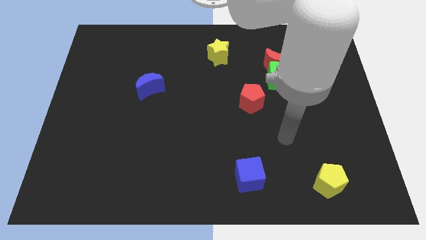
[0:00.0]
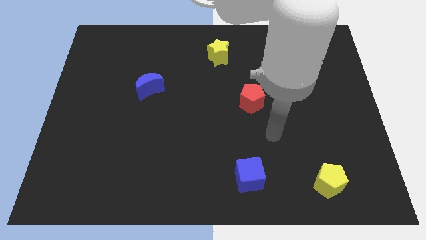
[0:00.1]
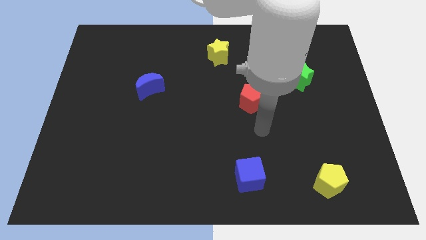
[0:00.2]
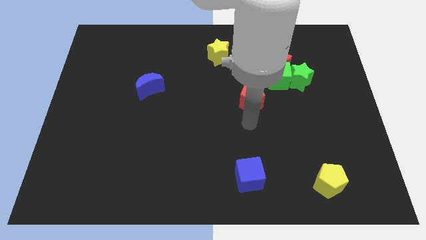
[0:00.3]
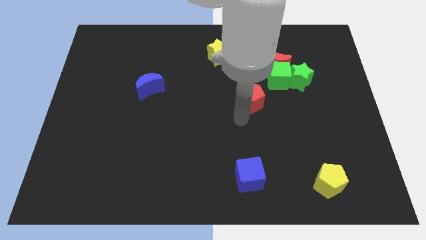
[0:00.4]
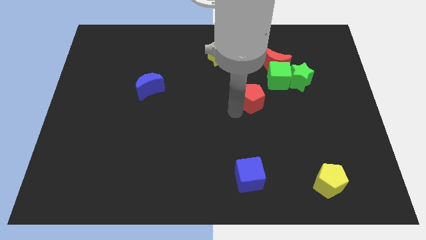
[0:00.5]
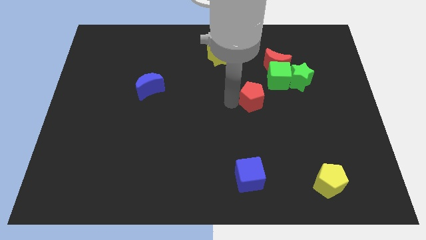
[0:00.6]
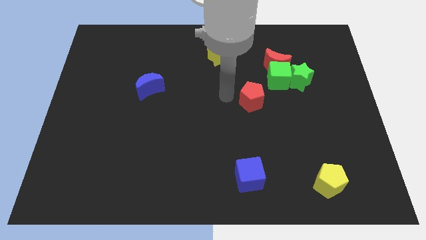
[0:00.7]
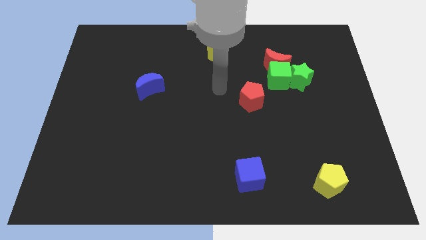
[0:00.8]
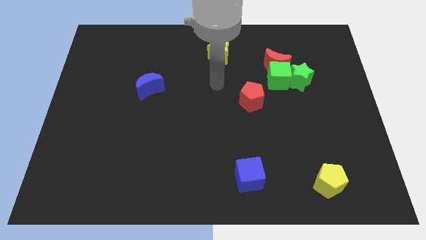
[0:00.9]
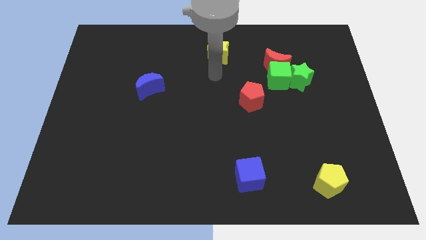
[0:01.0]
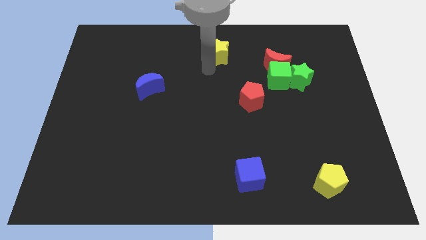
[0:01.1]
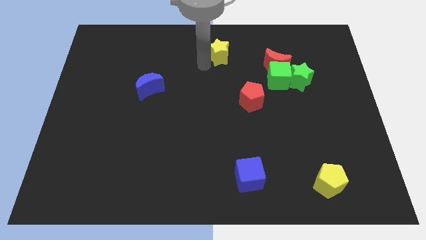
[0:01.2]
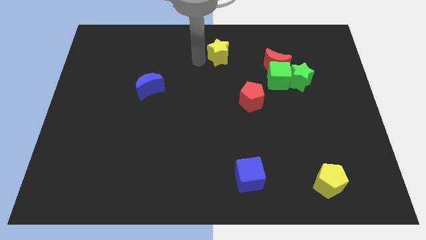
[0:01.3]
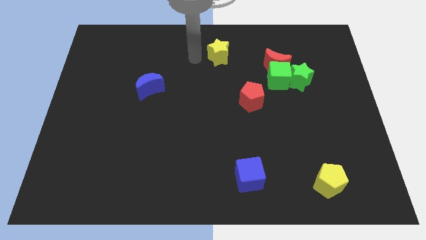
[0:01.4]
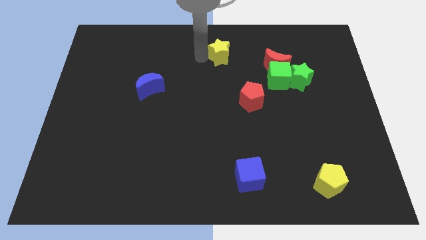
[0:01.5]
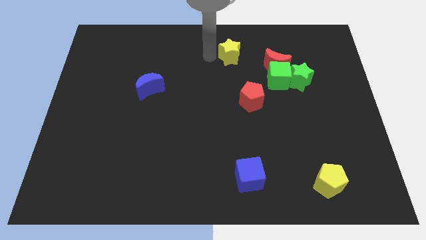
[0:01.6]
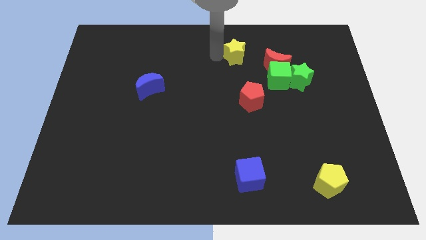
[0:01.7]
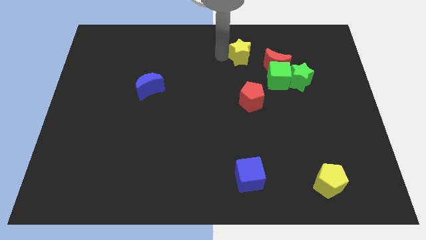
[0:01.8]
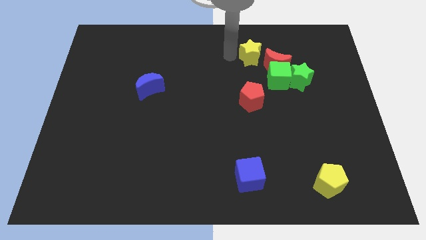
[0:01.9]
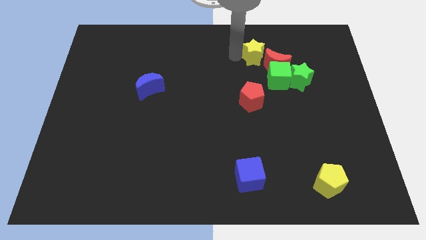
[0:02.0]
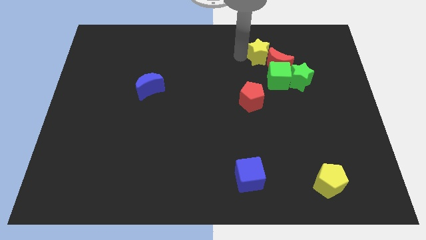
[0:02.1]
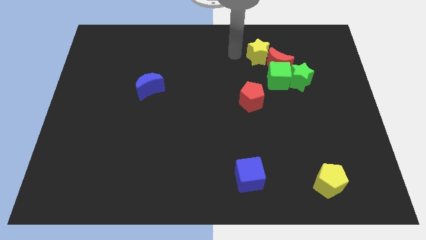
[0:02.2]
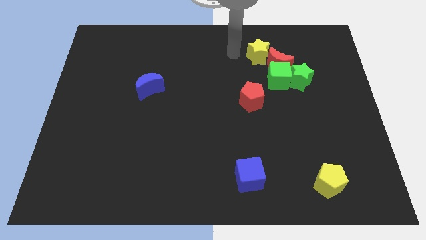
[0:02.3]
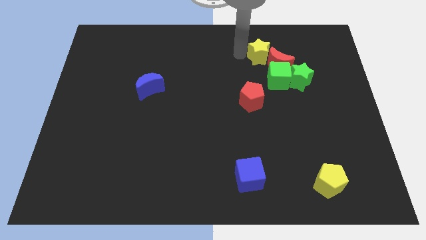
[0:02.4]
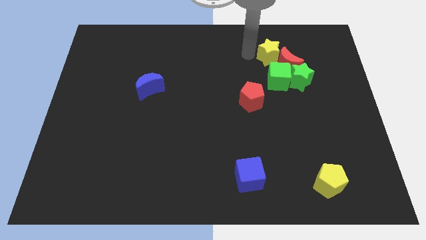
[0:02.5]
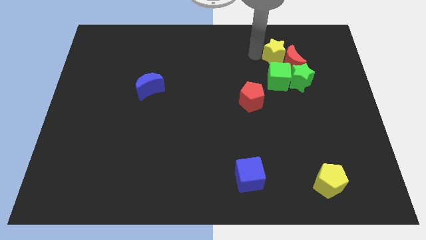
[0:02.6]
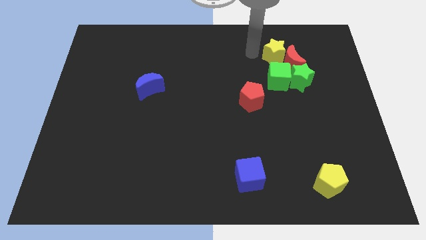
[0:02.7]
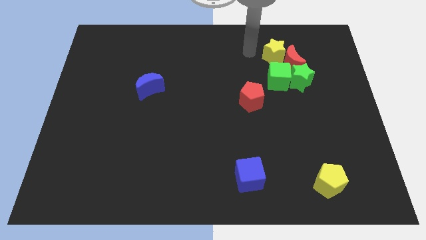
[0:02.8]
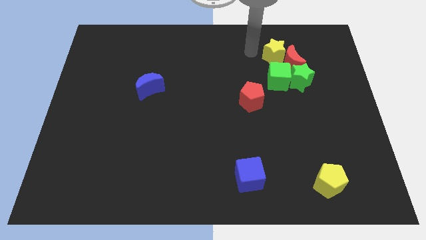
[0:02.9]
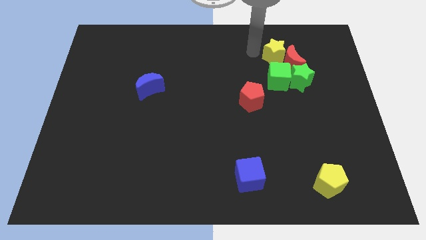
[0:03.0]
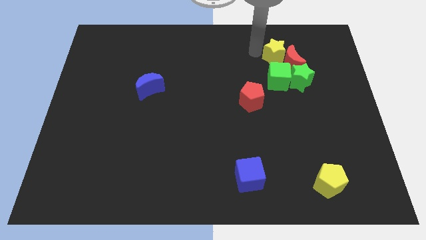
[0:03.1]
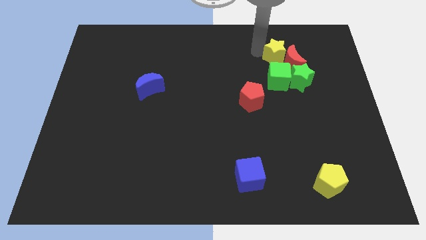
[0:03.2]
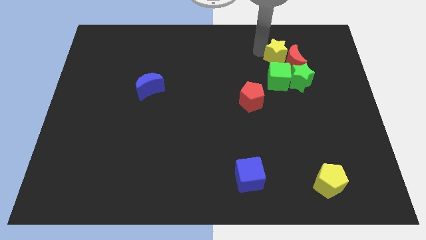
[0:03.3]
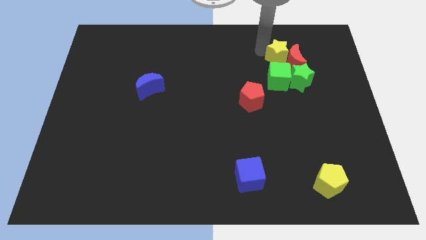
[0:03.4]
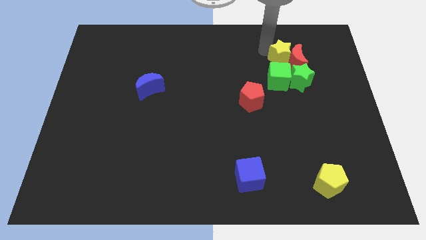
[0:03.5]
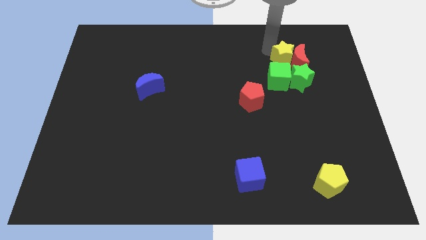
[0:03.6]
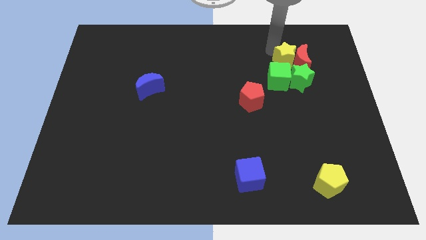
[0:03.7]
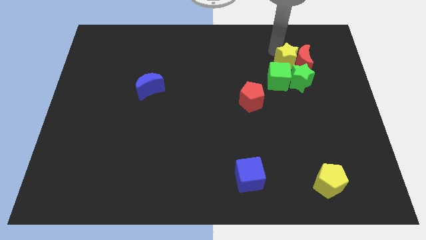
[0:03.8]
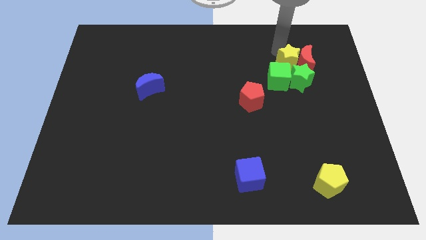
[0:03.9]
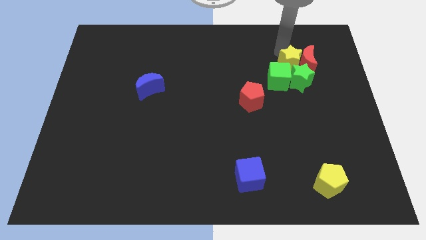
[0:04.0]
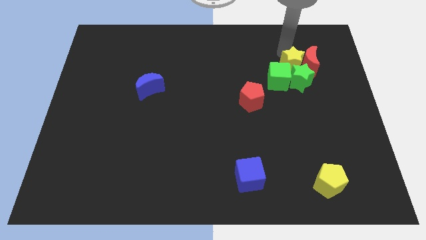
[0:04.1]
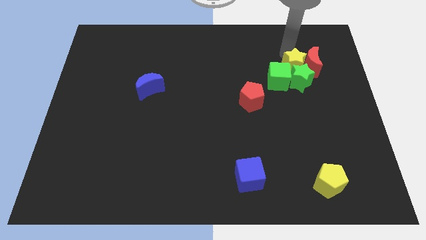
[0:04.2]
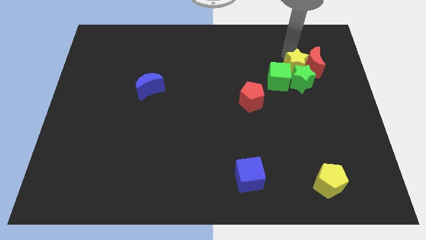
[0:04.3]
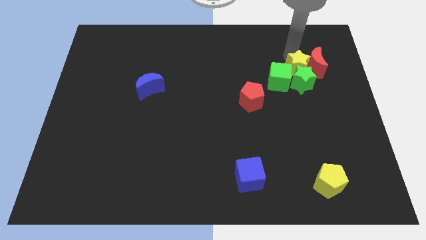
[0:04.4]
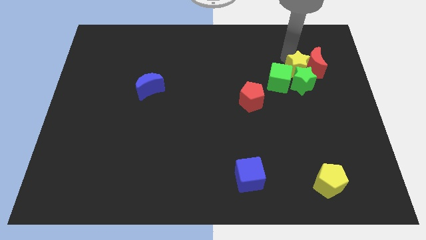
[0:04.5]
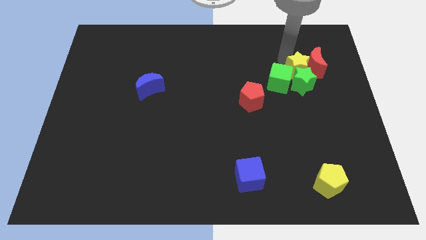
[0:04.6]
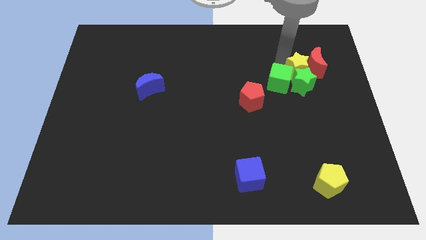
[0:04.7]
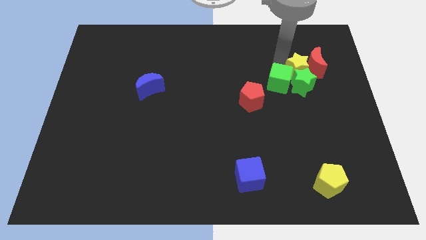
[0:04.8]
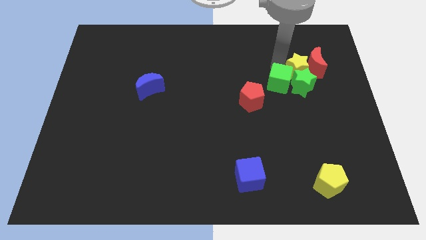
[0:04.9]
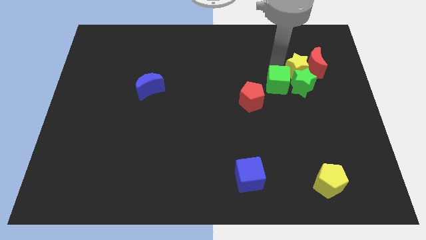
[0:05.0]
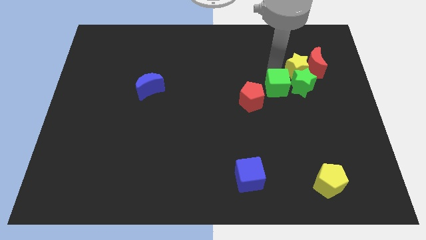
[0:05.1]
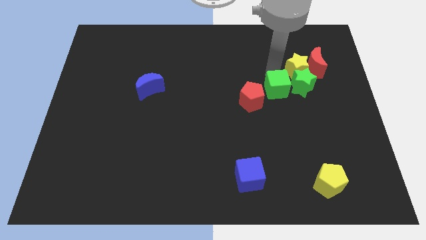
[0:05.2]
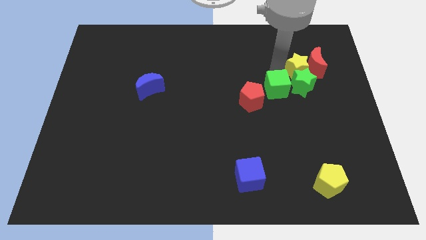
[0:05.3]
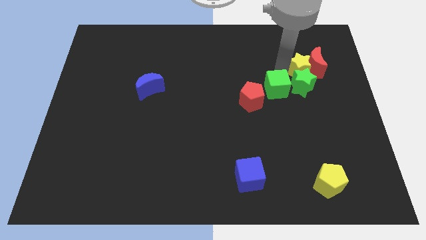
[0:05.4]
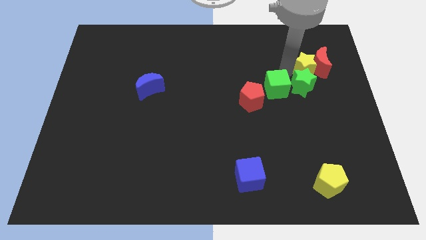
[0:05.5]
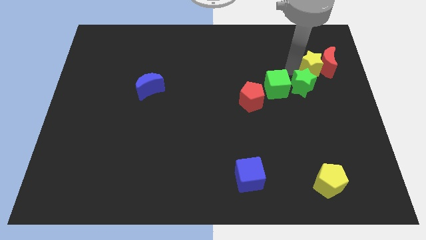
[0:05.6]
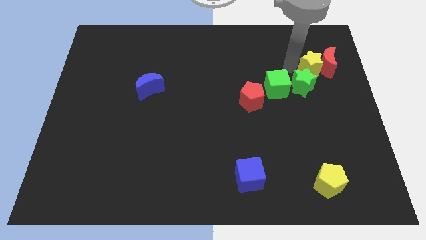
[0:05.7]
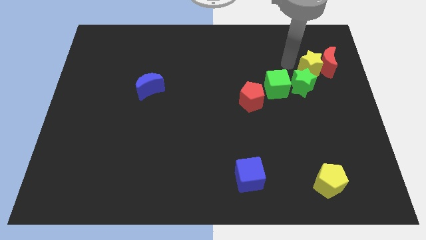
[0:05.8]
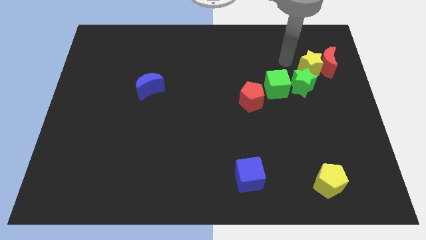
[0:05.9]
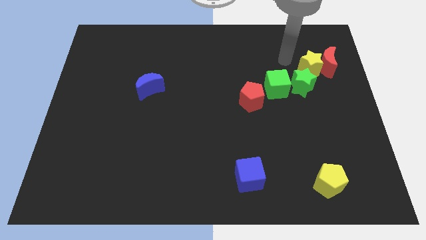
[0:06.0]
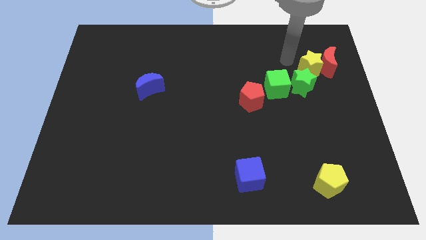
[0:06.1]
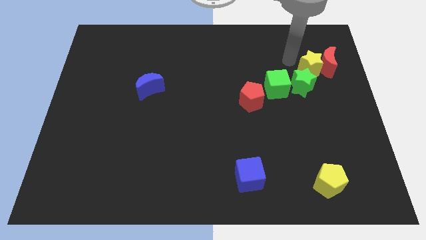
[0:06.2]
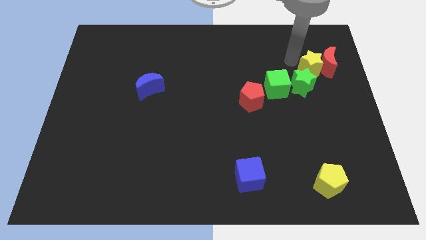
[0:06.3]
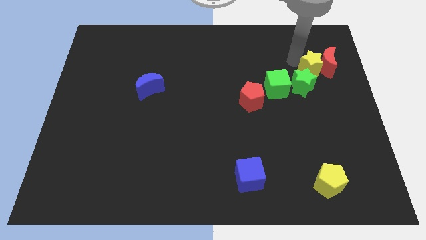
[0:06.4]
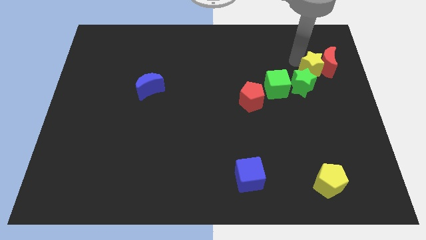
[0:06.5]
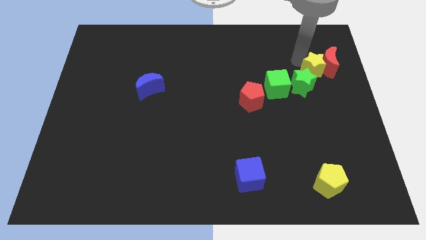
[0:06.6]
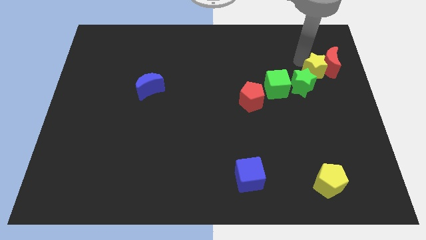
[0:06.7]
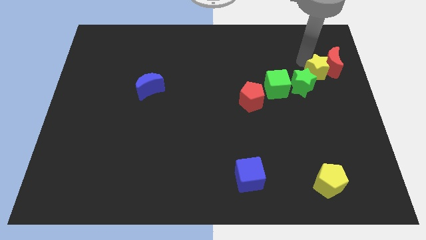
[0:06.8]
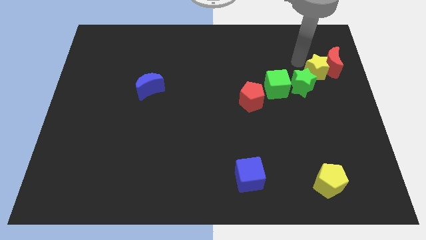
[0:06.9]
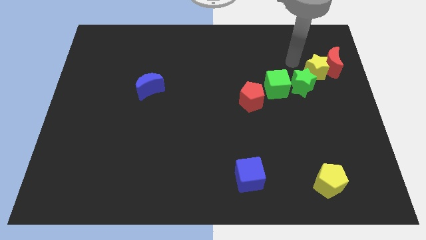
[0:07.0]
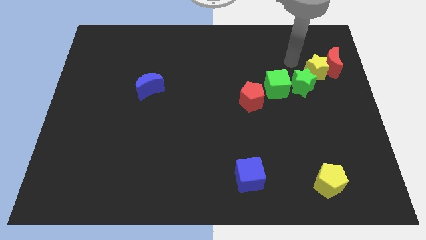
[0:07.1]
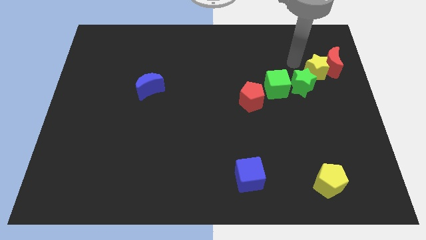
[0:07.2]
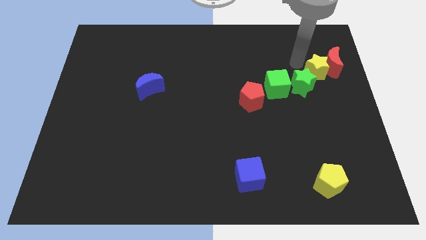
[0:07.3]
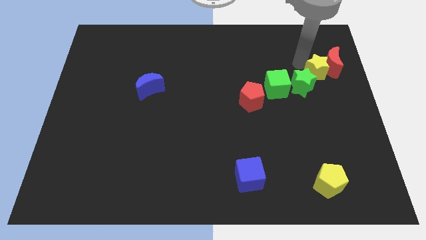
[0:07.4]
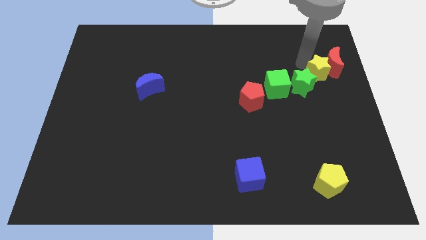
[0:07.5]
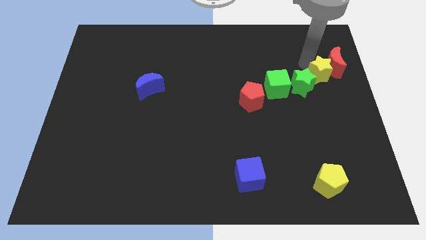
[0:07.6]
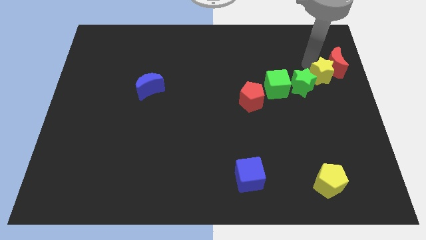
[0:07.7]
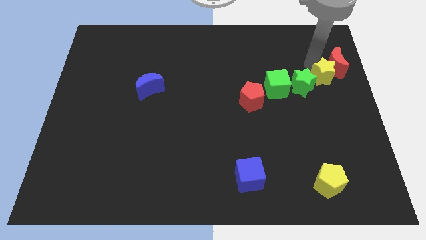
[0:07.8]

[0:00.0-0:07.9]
put the yellow star to the center right
